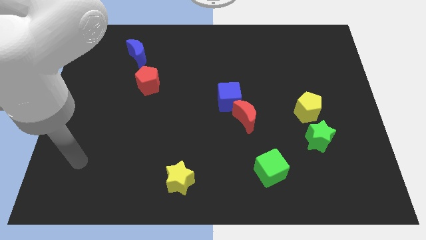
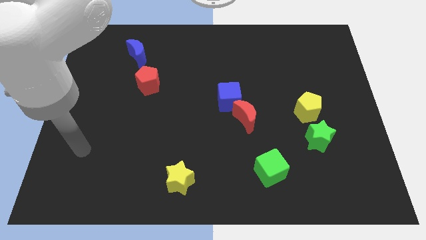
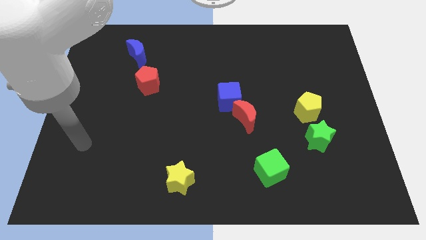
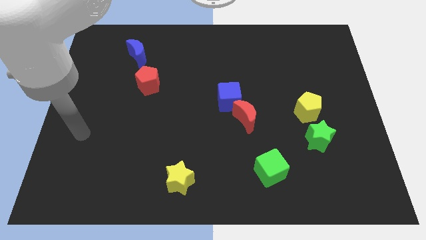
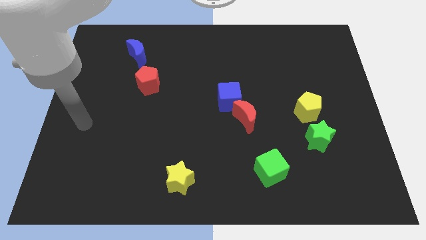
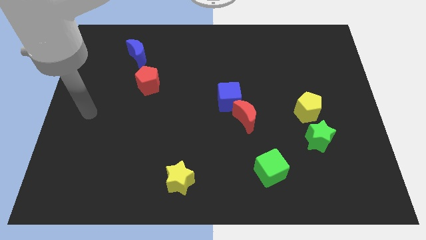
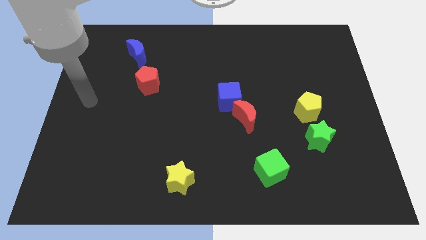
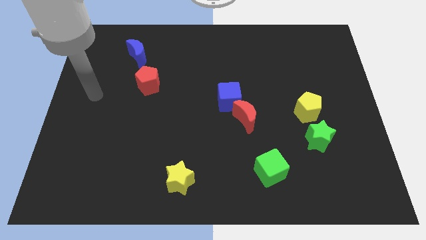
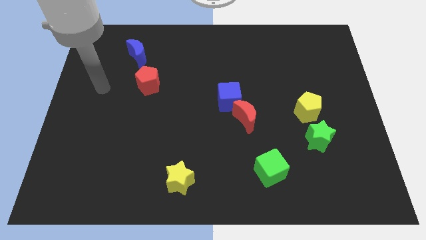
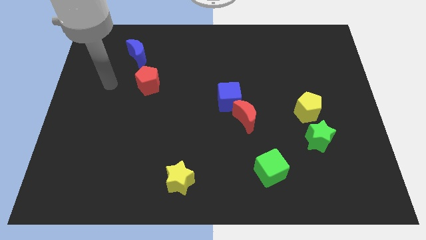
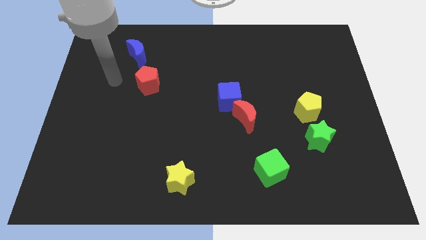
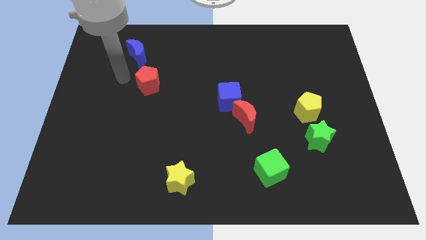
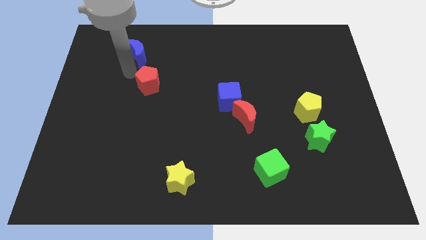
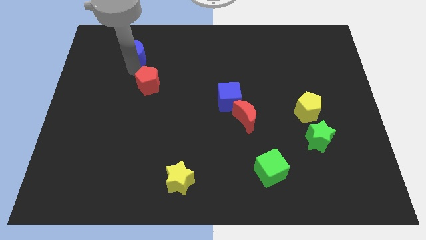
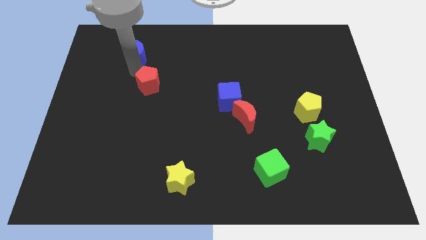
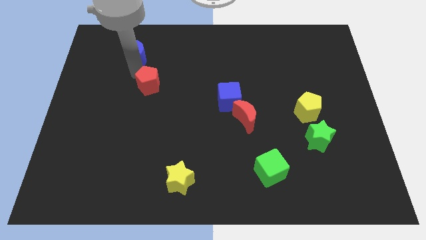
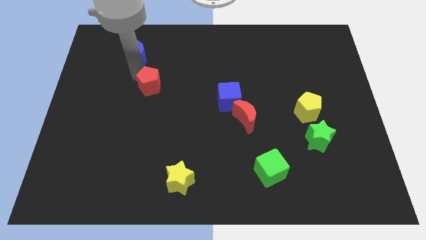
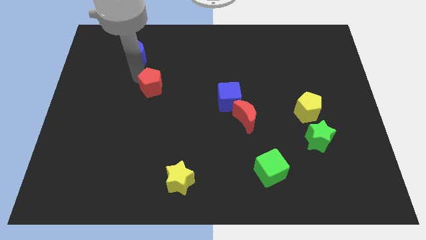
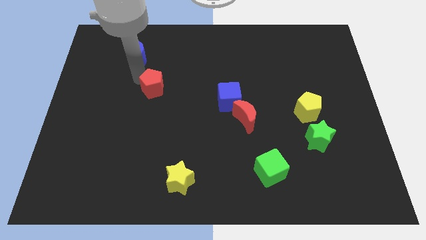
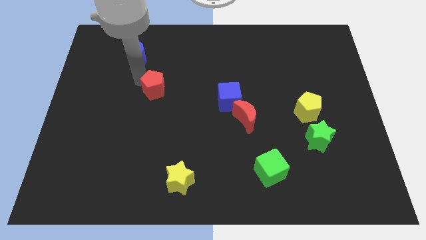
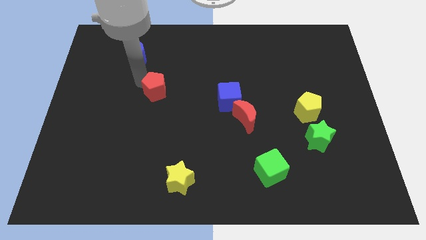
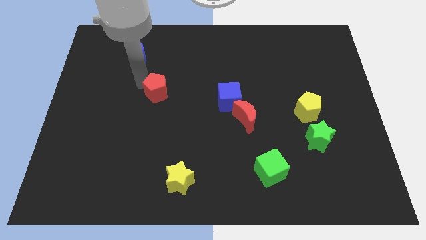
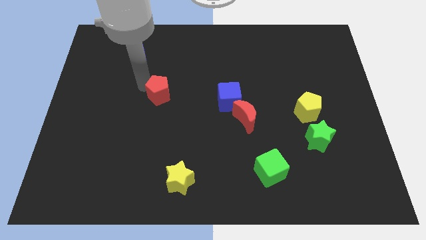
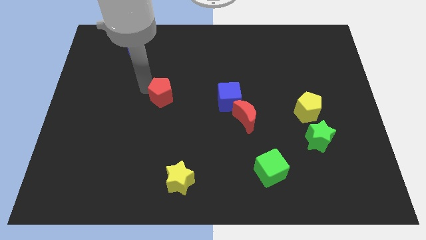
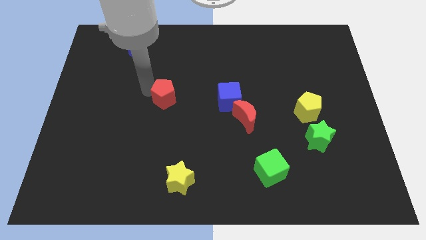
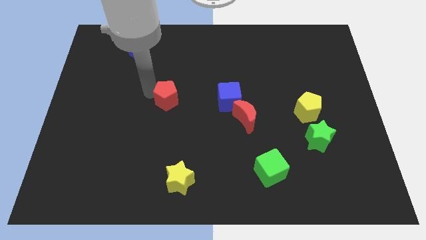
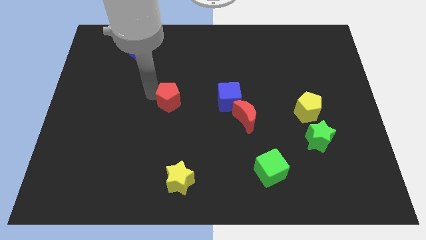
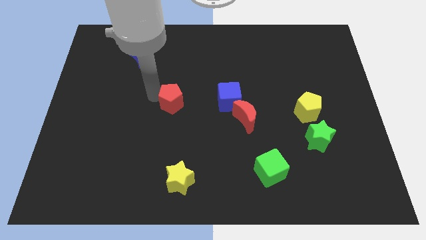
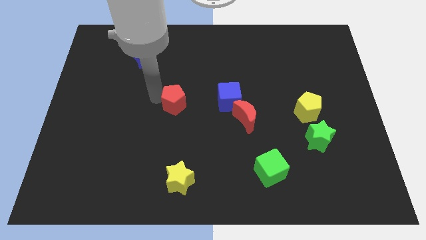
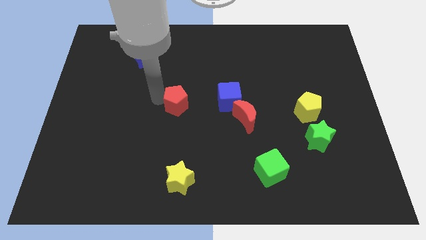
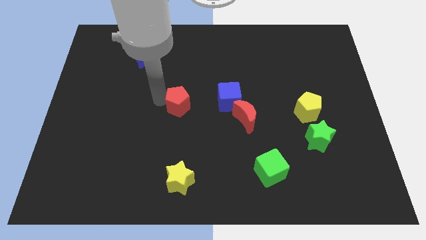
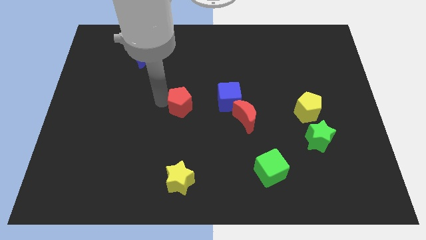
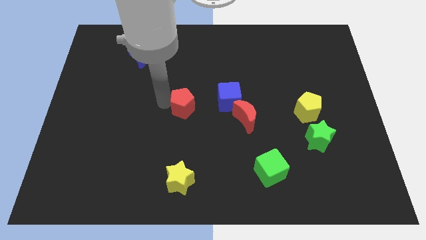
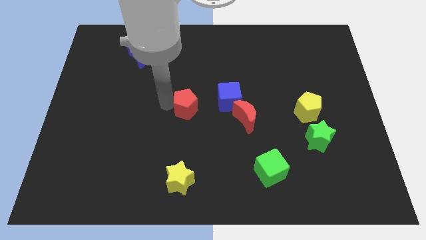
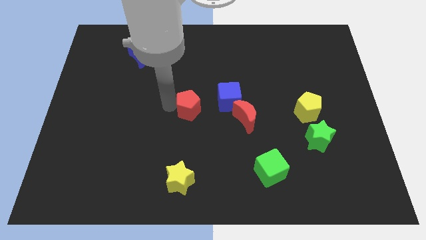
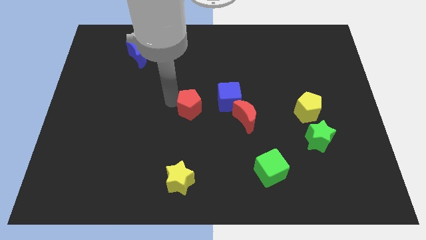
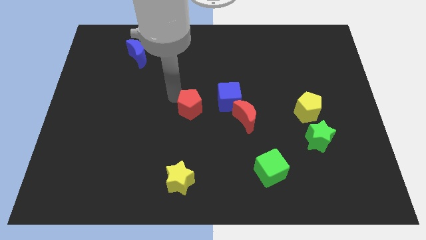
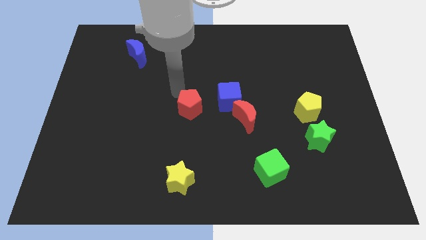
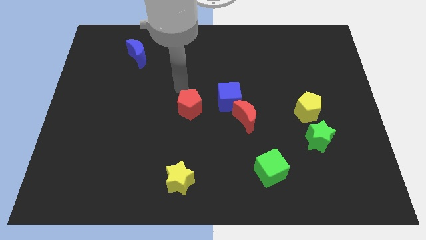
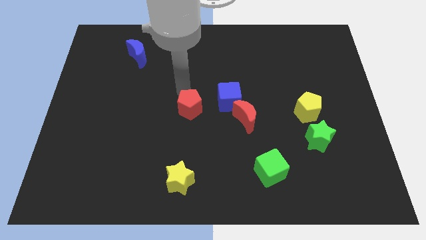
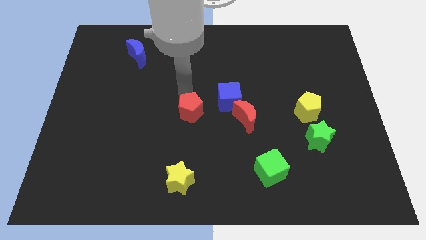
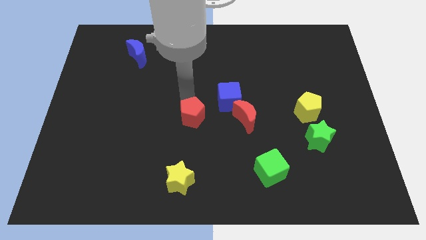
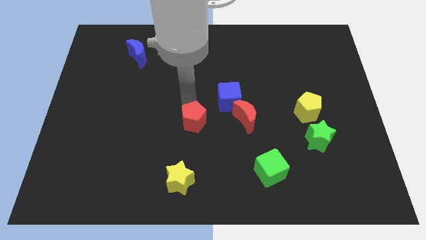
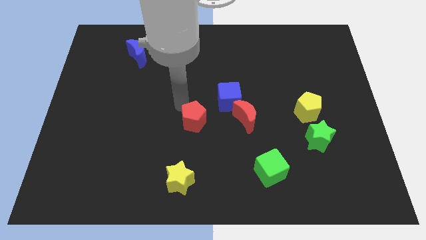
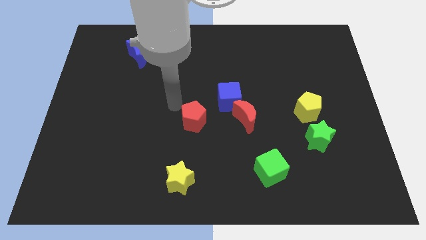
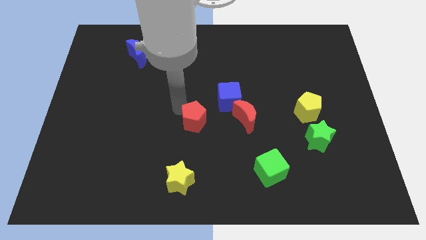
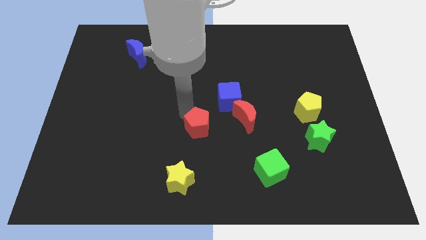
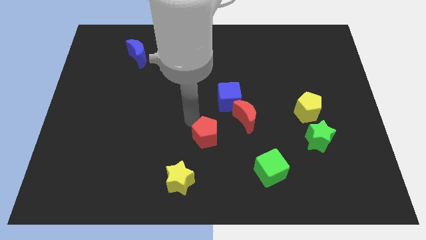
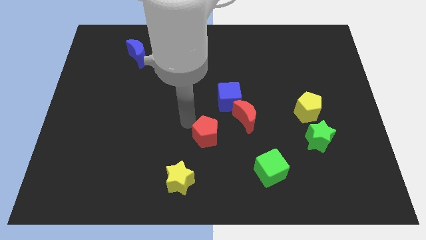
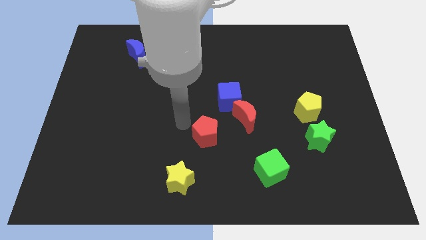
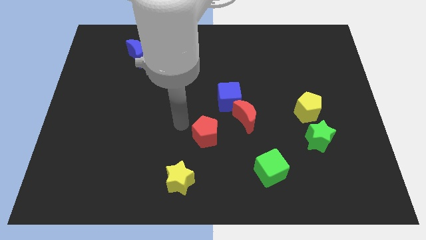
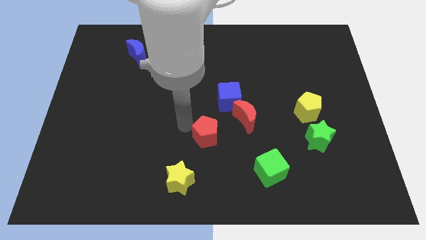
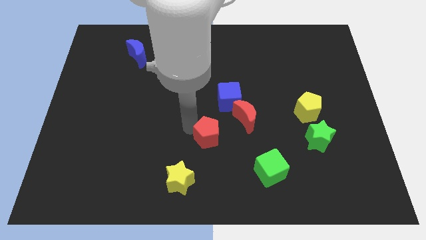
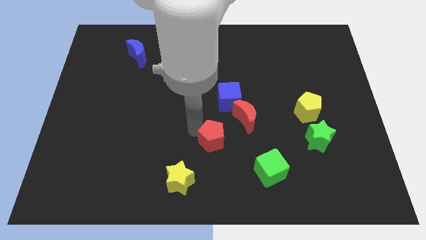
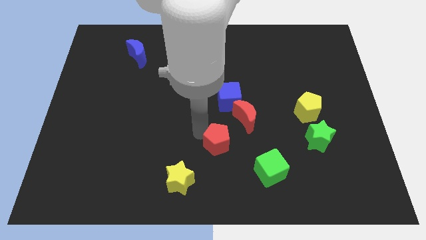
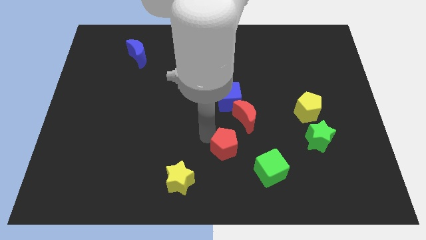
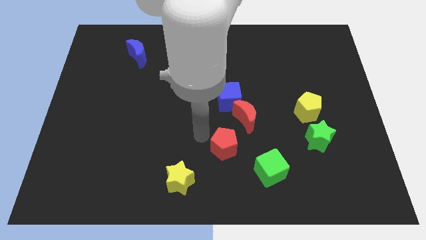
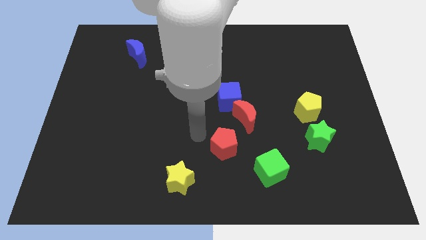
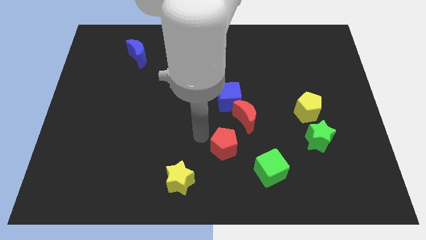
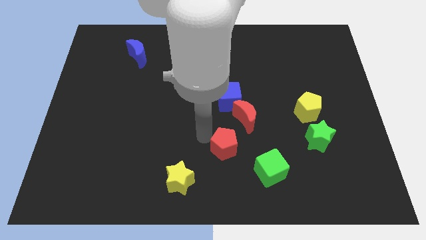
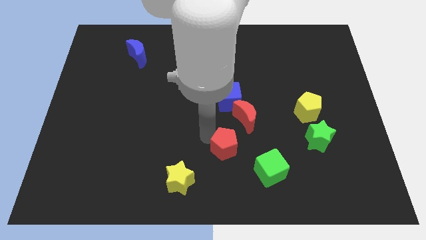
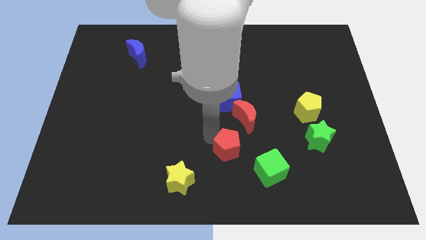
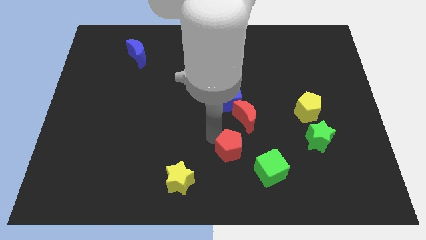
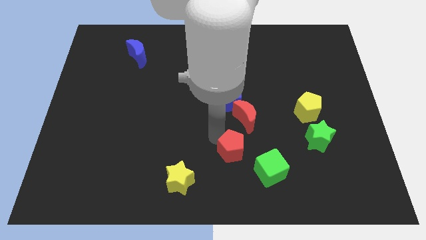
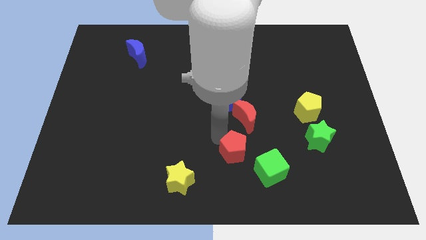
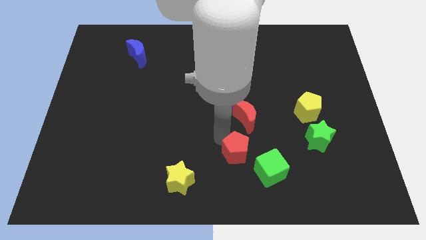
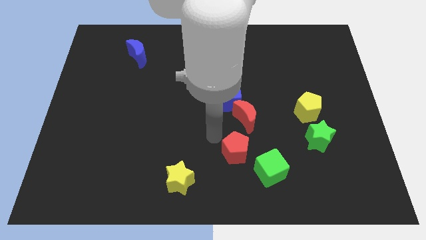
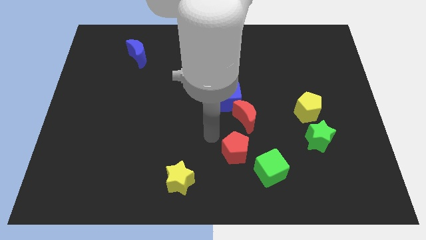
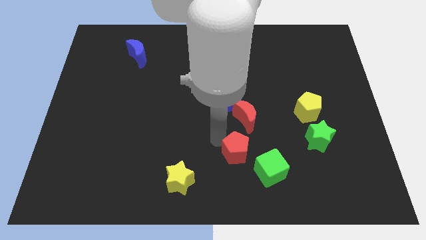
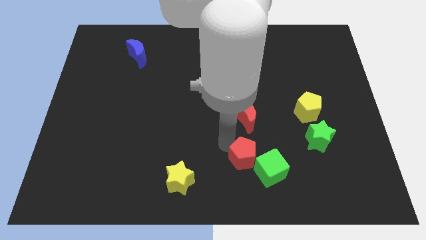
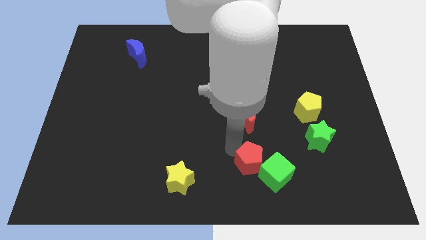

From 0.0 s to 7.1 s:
slide the red pentagon close to the green cube
